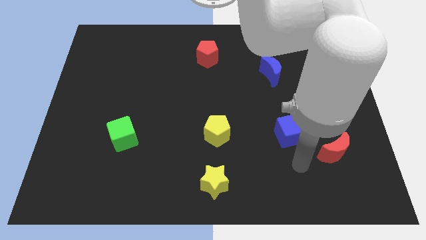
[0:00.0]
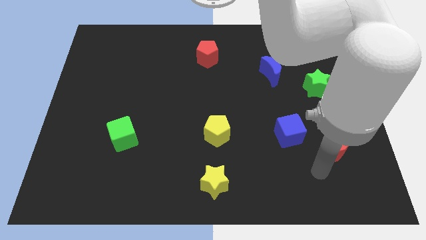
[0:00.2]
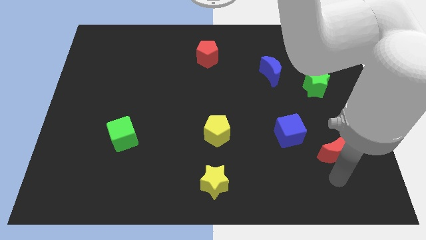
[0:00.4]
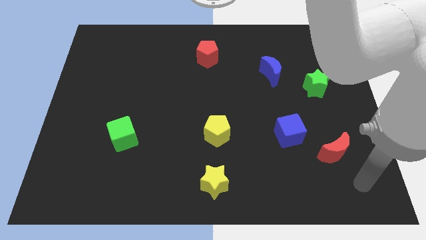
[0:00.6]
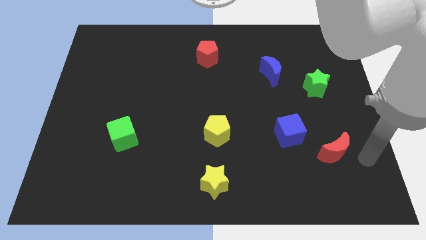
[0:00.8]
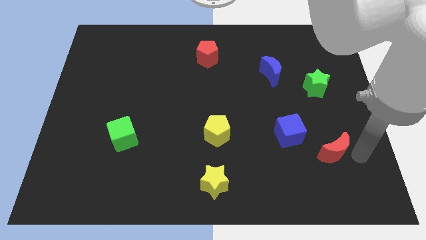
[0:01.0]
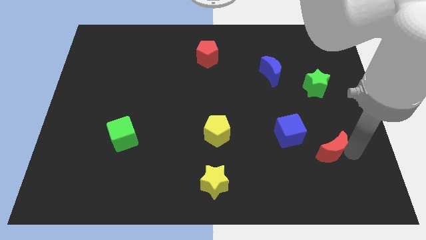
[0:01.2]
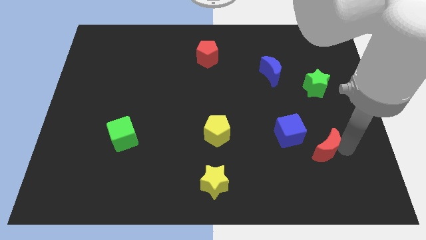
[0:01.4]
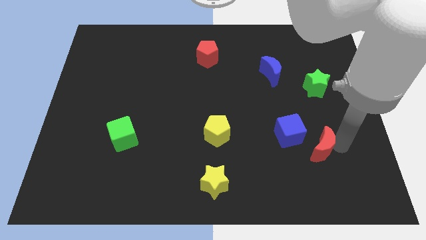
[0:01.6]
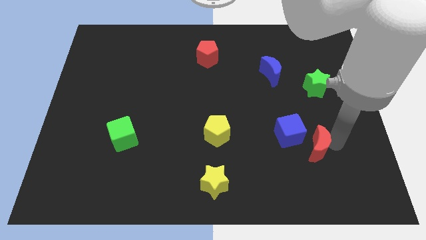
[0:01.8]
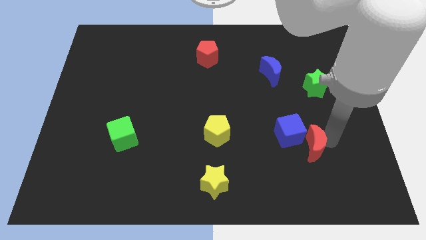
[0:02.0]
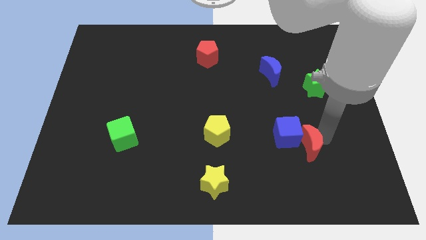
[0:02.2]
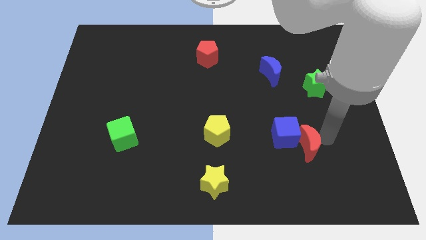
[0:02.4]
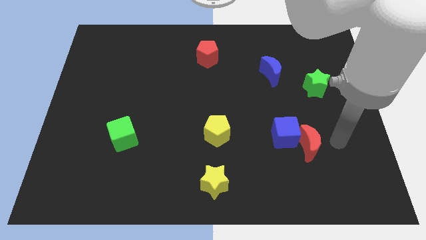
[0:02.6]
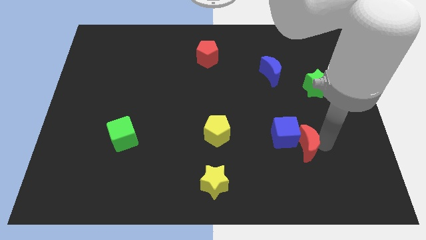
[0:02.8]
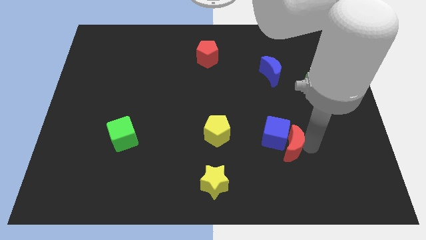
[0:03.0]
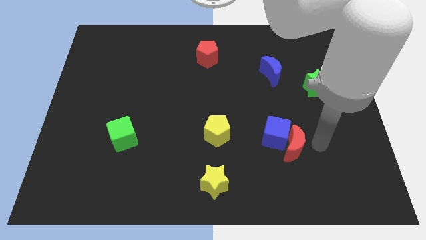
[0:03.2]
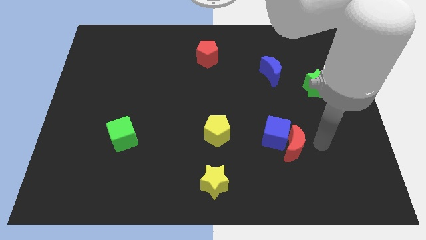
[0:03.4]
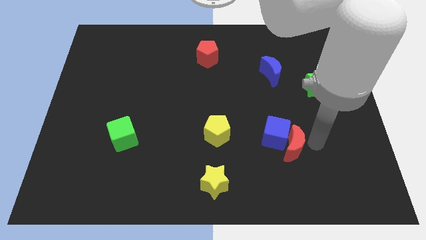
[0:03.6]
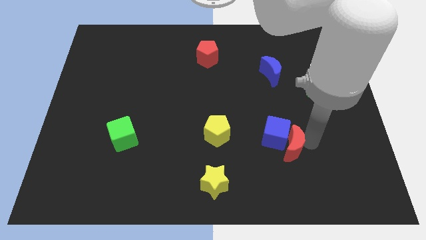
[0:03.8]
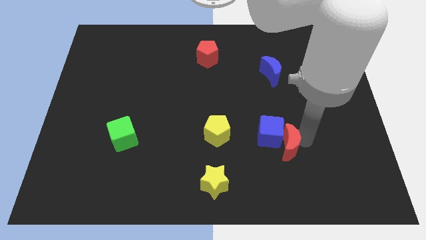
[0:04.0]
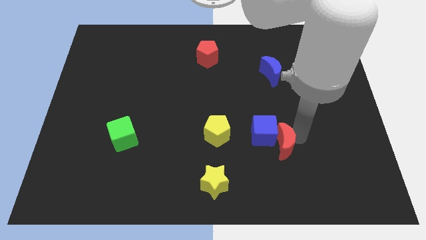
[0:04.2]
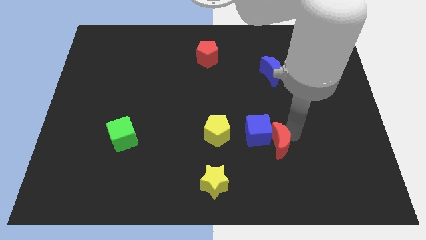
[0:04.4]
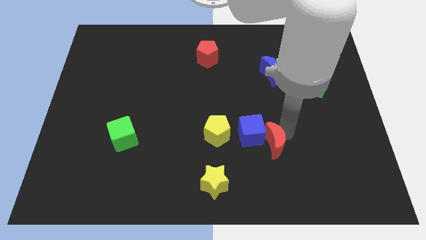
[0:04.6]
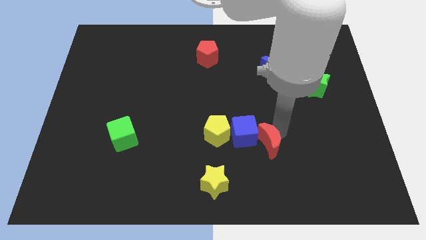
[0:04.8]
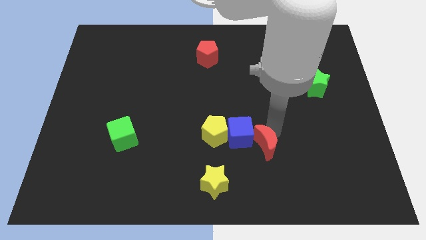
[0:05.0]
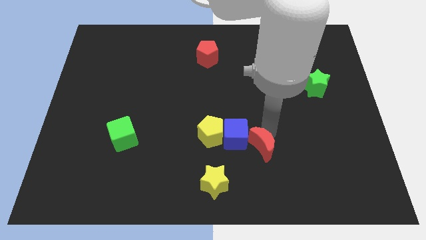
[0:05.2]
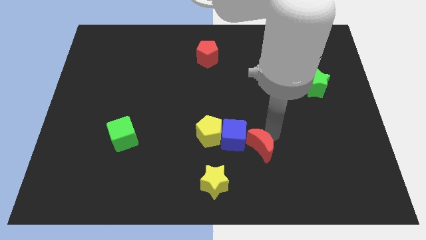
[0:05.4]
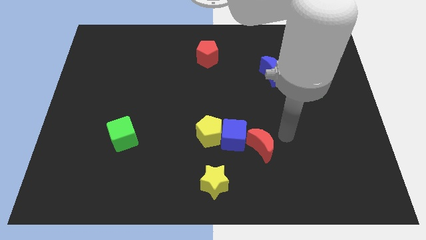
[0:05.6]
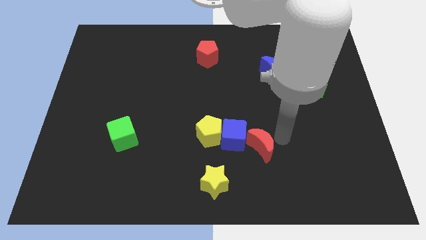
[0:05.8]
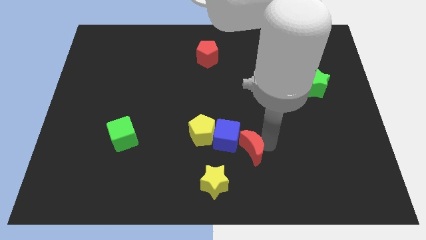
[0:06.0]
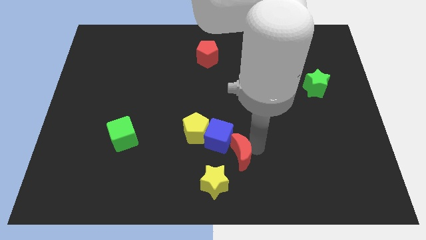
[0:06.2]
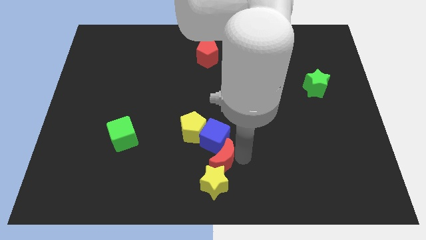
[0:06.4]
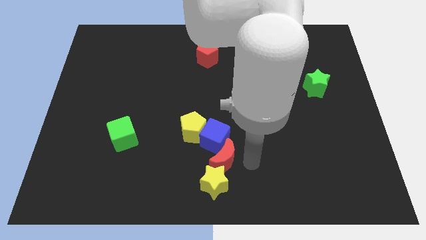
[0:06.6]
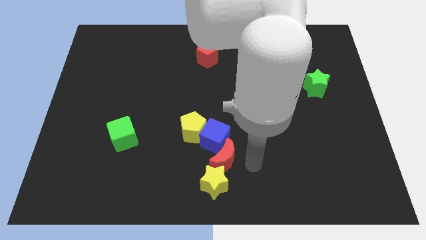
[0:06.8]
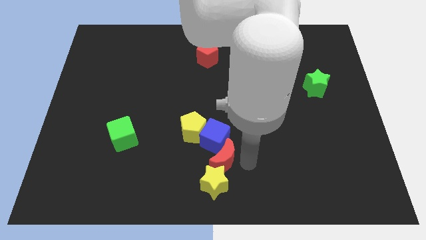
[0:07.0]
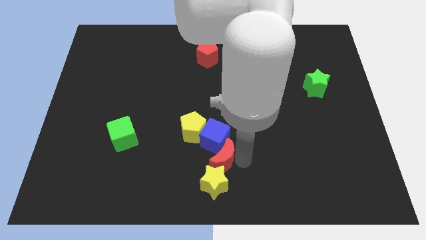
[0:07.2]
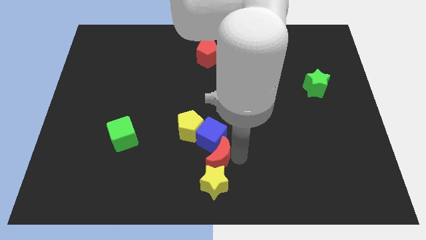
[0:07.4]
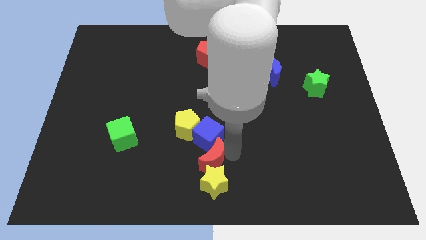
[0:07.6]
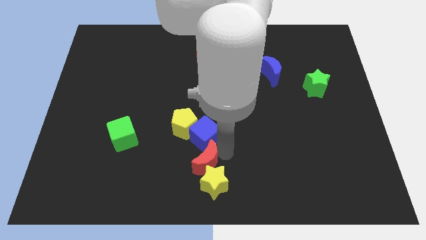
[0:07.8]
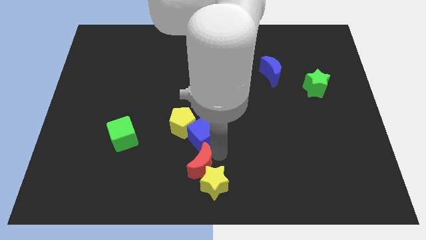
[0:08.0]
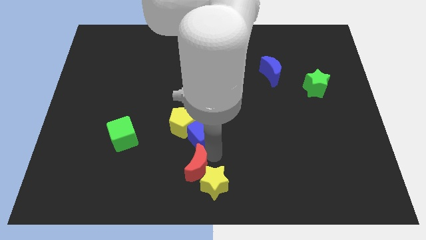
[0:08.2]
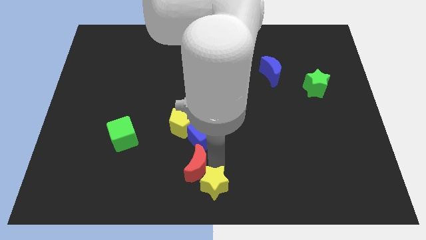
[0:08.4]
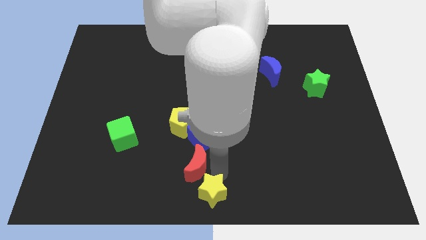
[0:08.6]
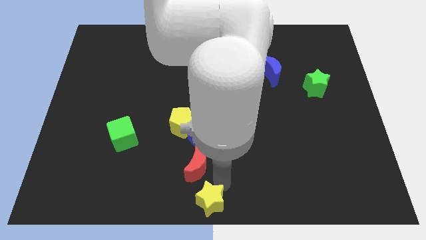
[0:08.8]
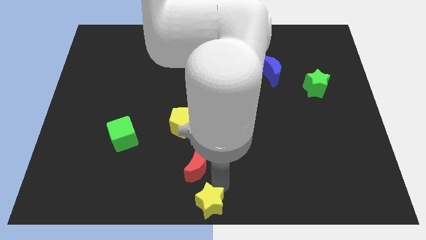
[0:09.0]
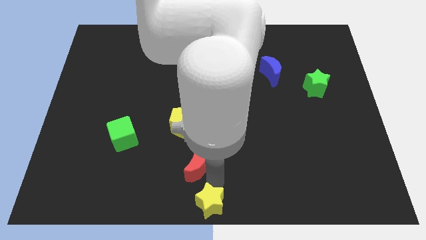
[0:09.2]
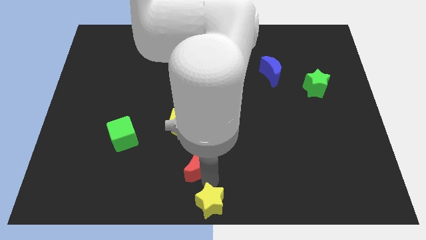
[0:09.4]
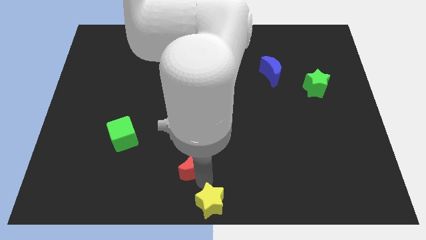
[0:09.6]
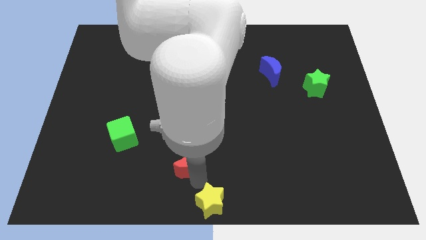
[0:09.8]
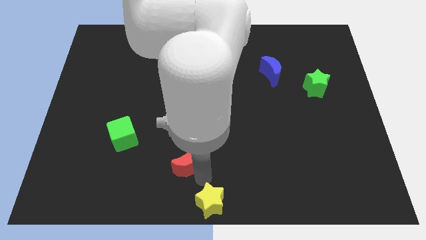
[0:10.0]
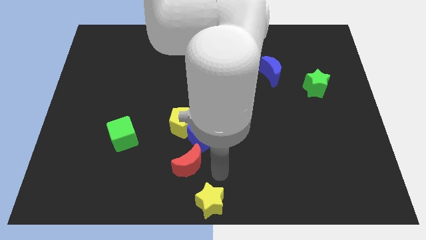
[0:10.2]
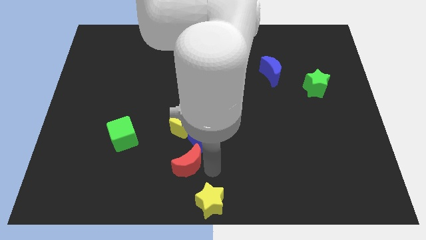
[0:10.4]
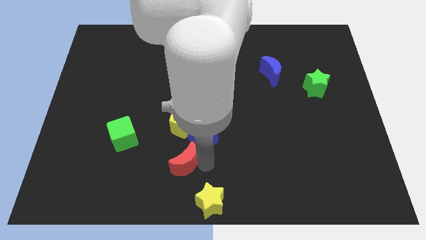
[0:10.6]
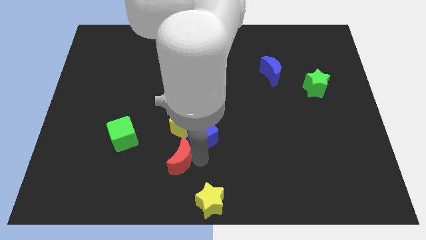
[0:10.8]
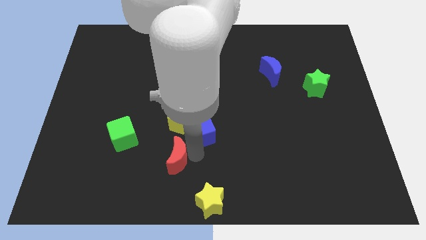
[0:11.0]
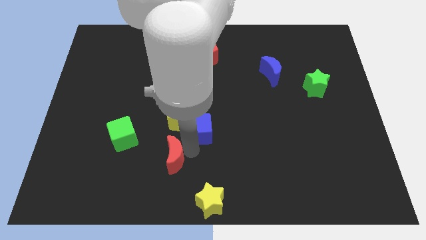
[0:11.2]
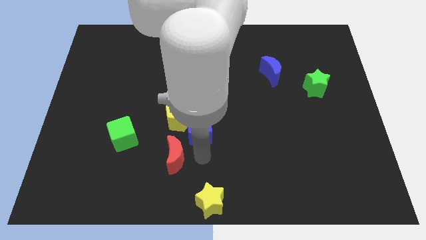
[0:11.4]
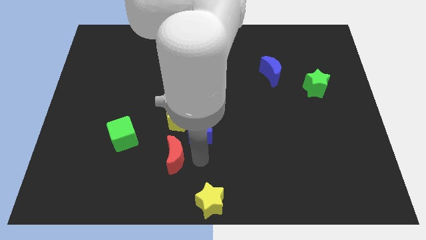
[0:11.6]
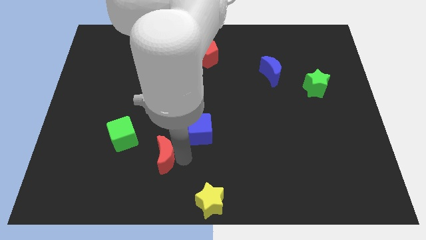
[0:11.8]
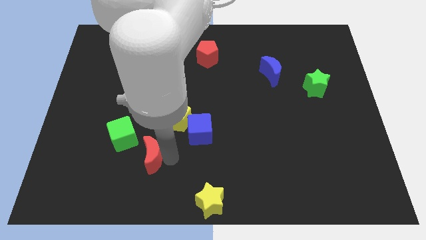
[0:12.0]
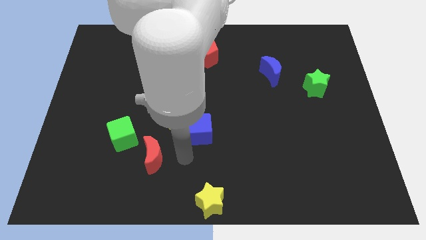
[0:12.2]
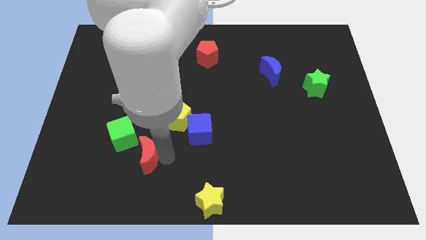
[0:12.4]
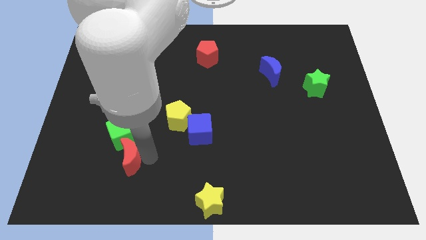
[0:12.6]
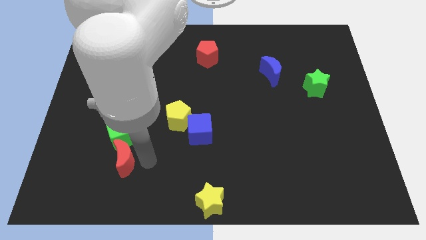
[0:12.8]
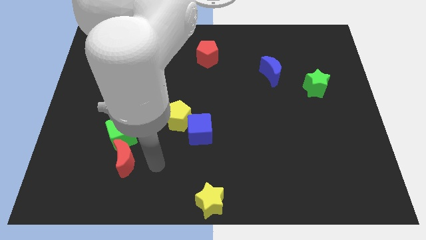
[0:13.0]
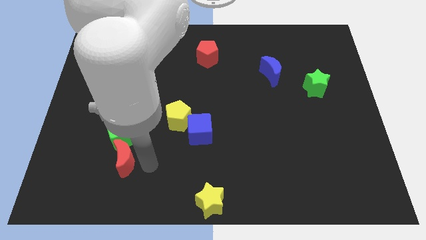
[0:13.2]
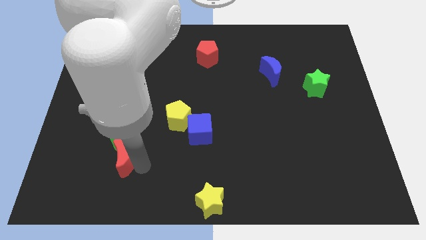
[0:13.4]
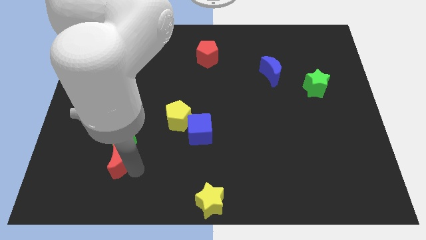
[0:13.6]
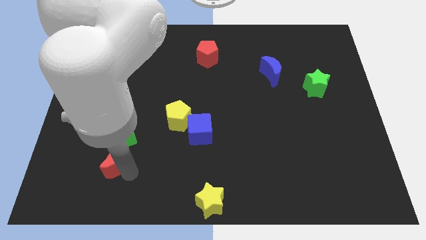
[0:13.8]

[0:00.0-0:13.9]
put the red moon to the bottom left of the green cube

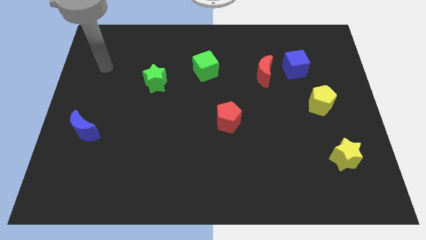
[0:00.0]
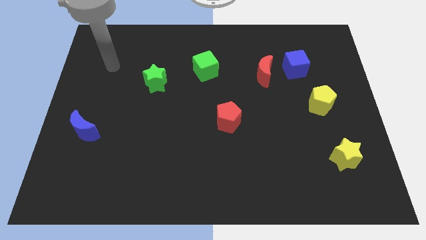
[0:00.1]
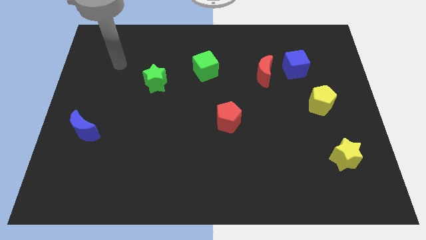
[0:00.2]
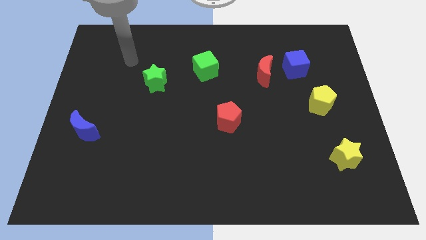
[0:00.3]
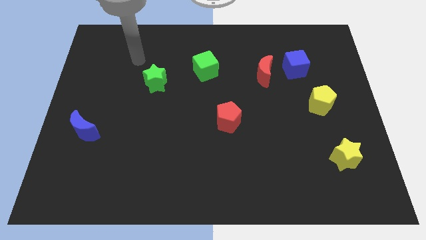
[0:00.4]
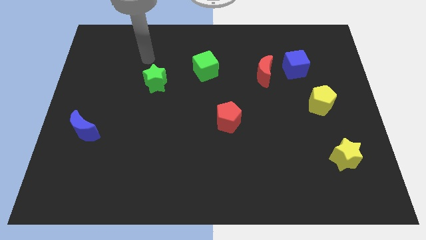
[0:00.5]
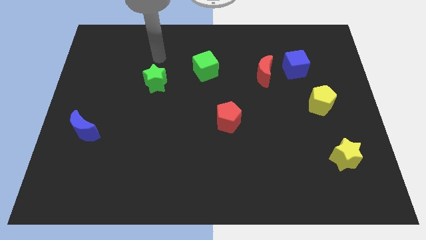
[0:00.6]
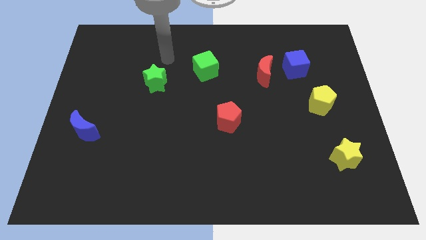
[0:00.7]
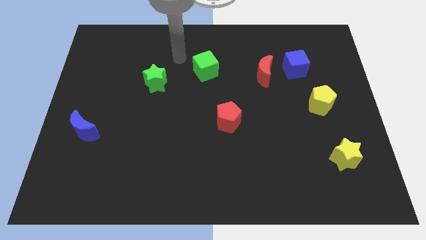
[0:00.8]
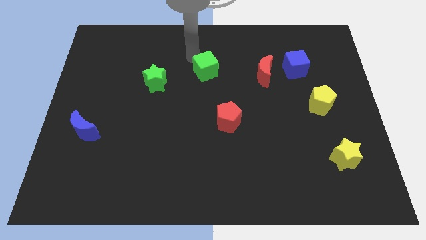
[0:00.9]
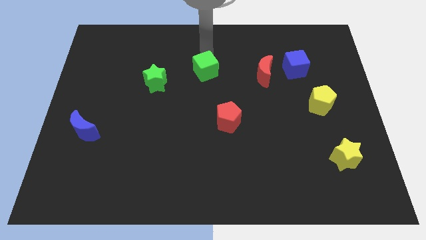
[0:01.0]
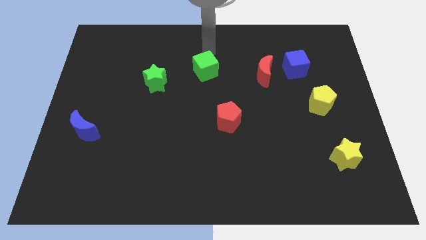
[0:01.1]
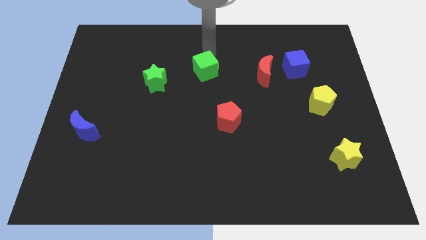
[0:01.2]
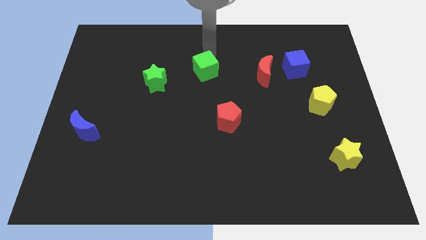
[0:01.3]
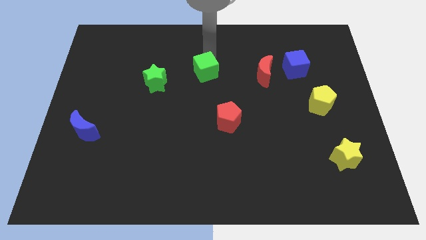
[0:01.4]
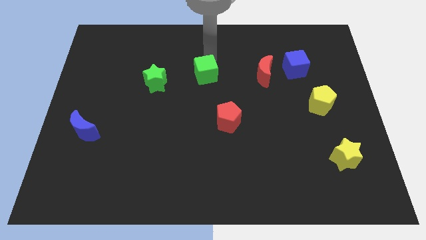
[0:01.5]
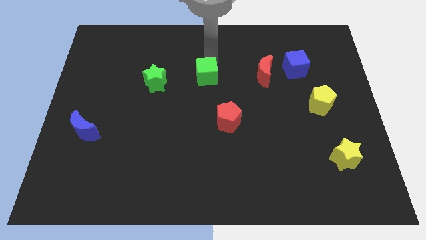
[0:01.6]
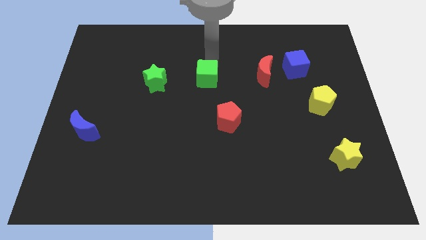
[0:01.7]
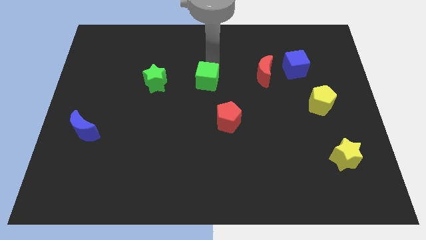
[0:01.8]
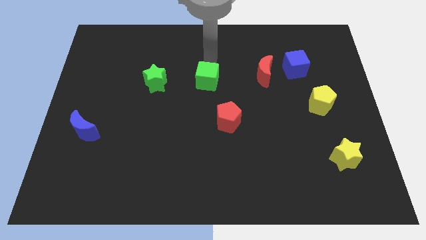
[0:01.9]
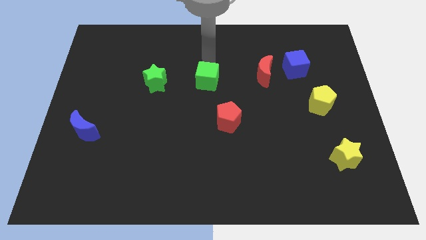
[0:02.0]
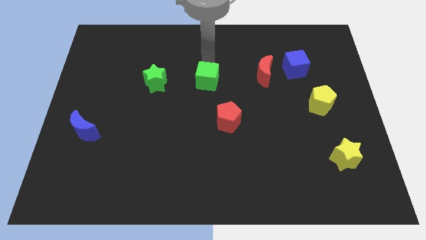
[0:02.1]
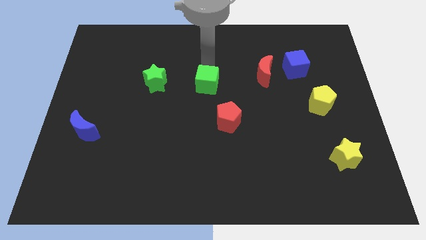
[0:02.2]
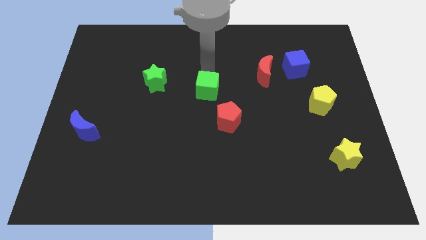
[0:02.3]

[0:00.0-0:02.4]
put the green cube to the top left of the red pentagon
